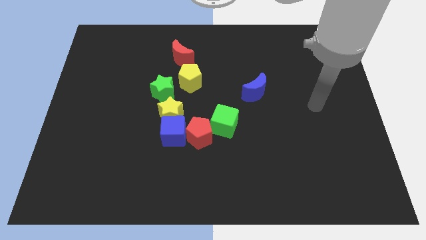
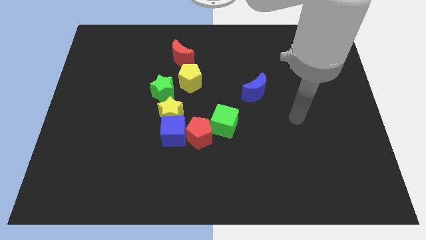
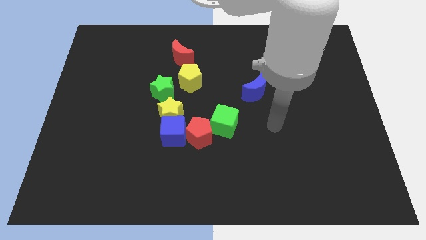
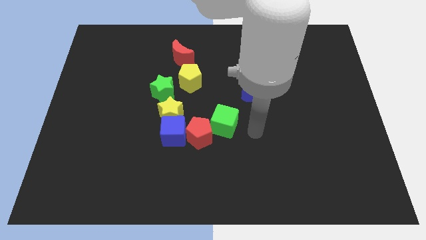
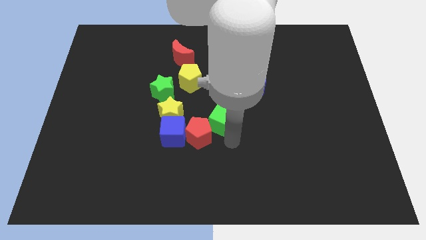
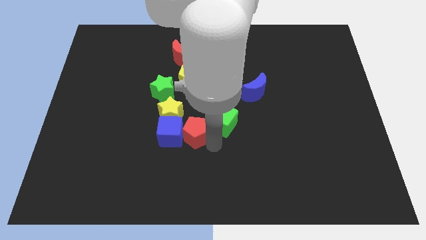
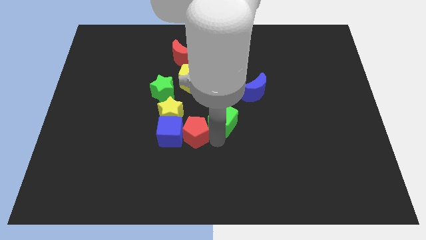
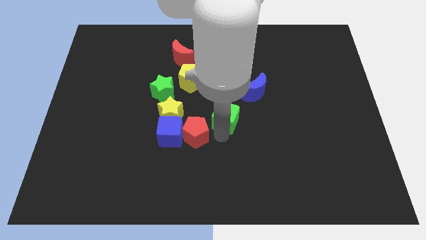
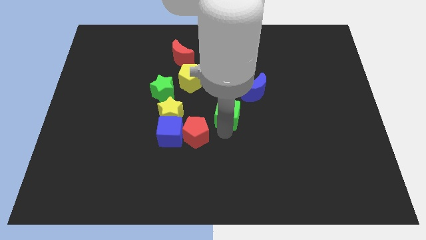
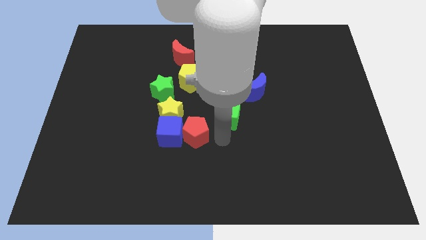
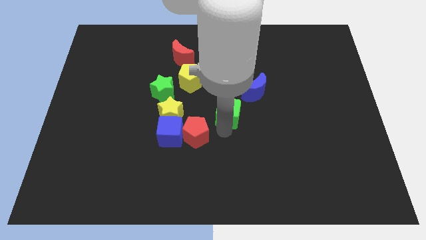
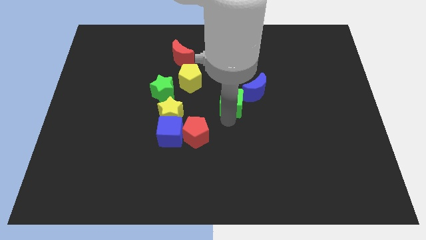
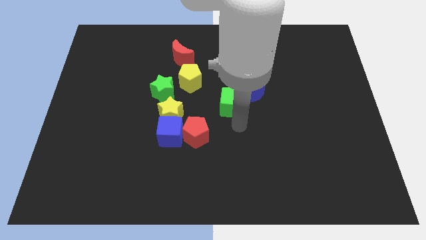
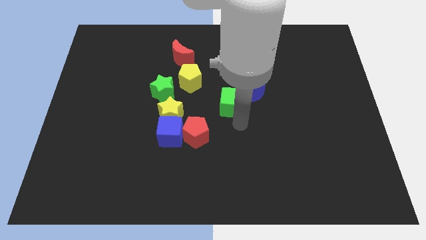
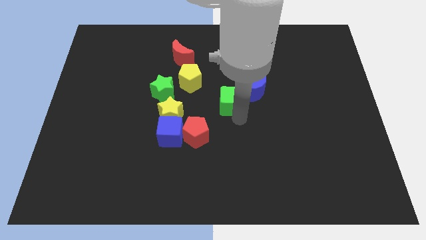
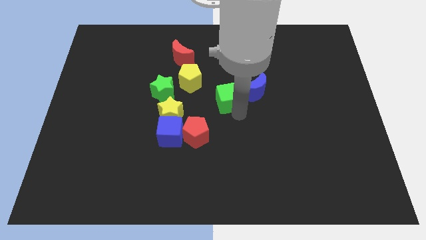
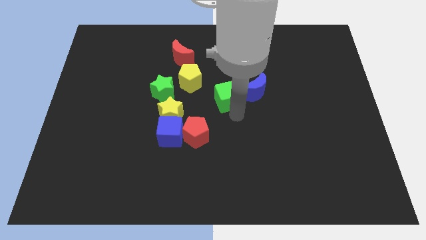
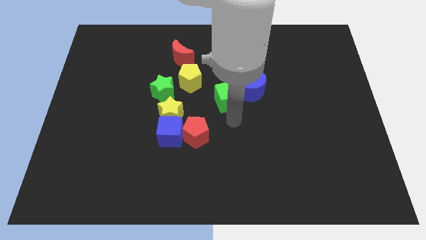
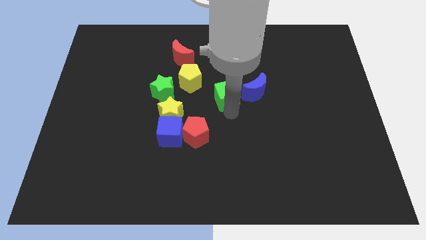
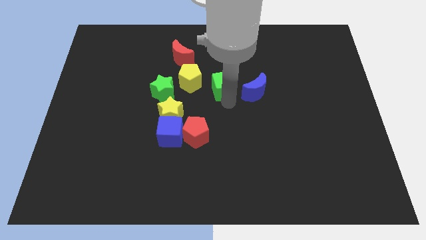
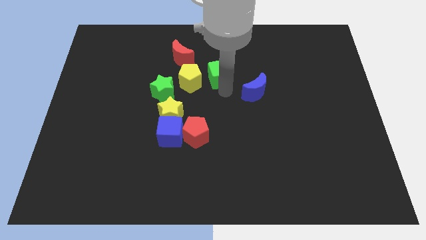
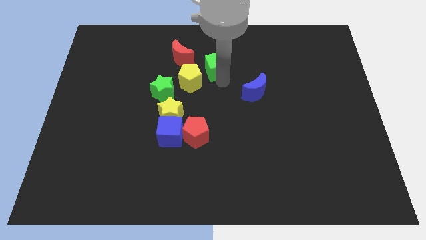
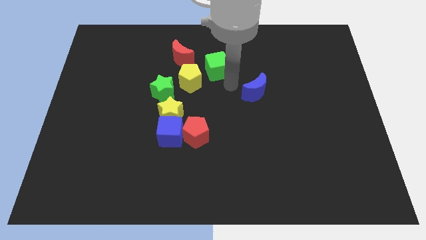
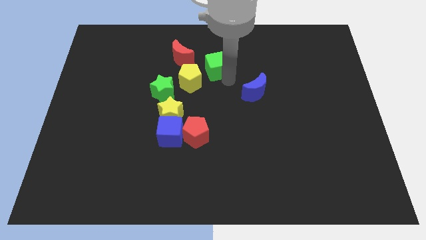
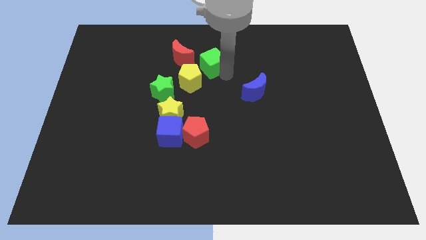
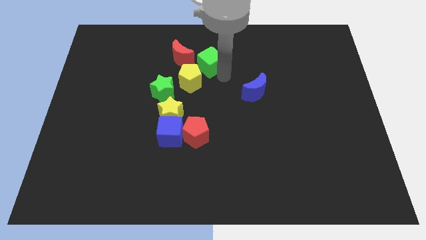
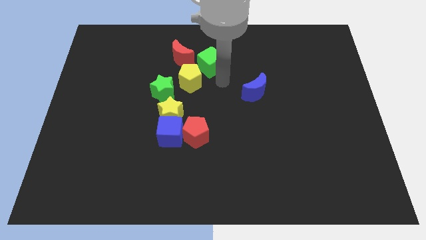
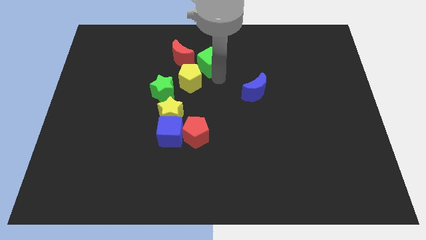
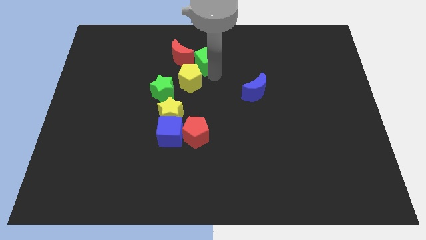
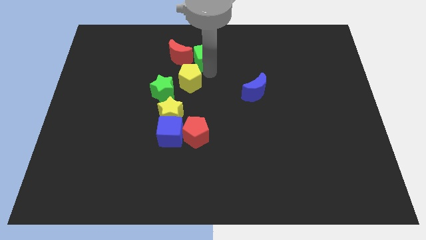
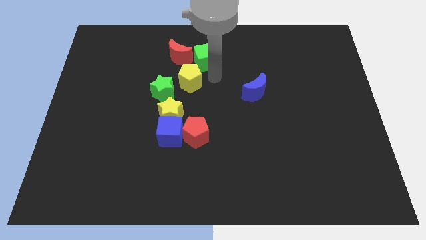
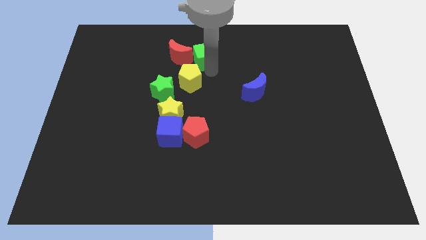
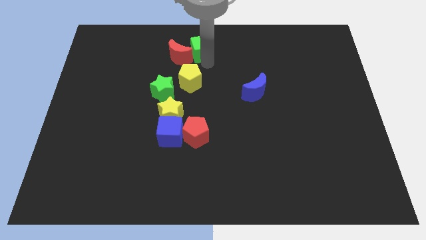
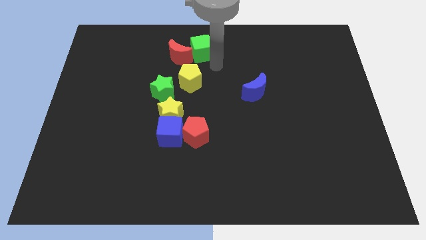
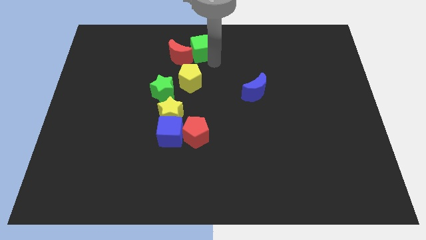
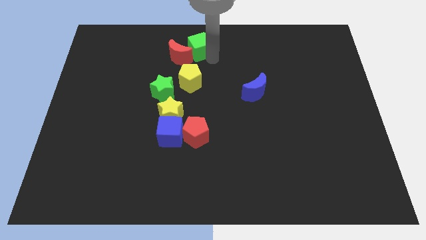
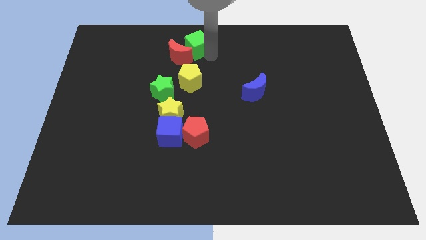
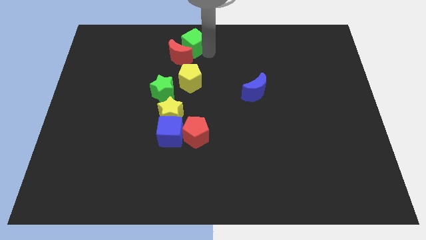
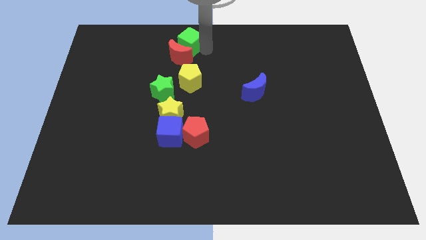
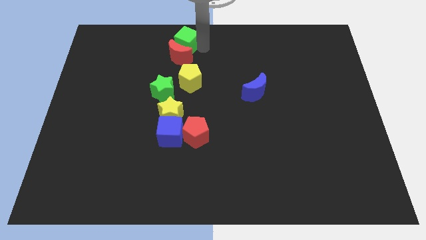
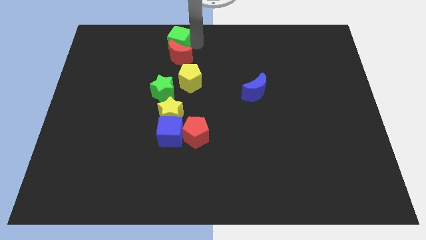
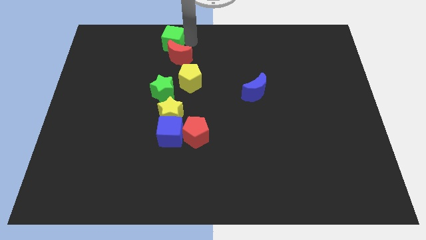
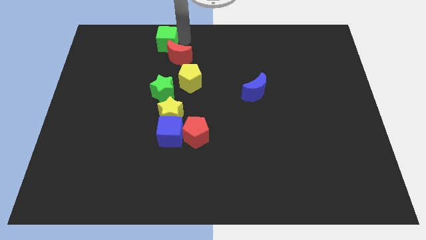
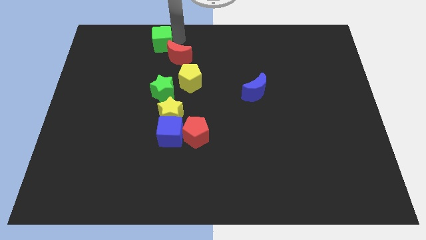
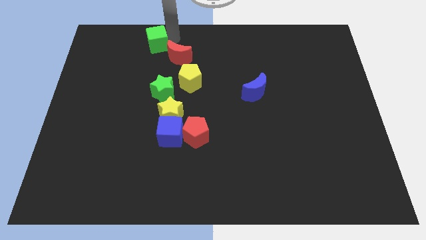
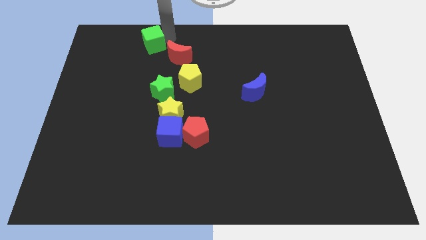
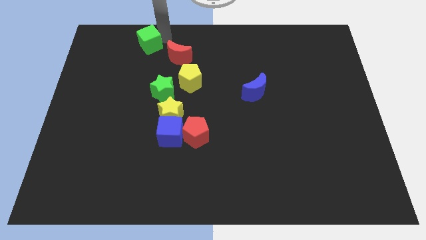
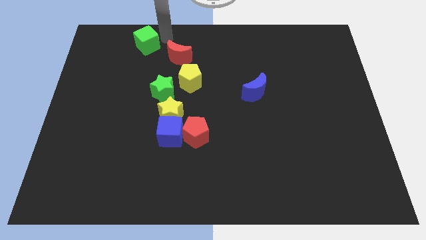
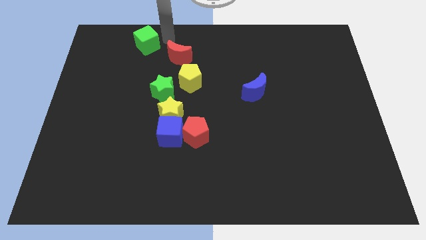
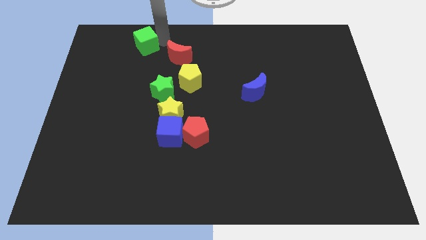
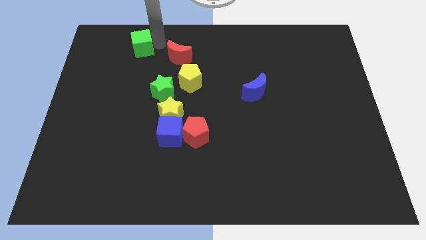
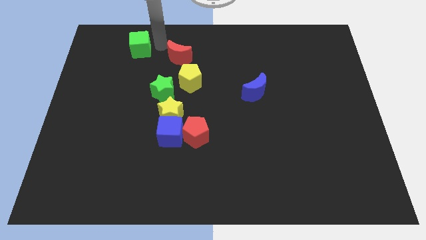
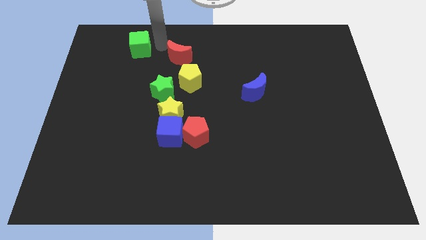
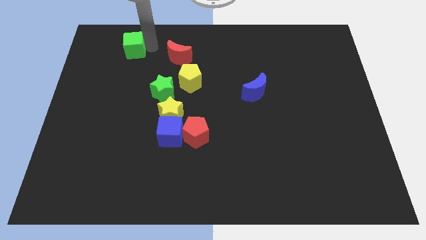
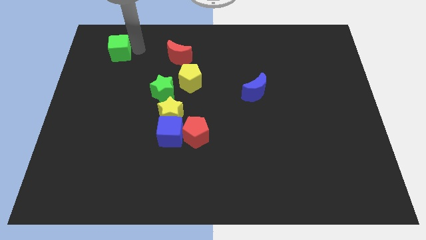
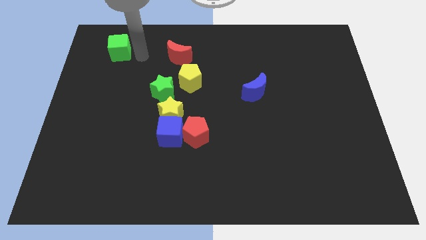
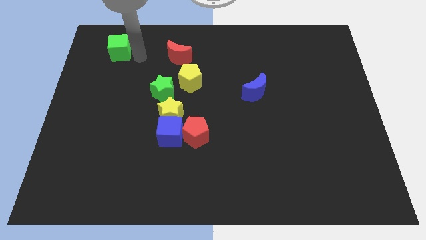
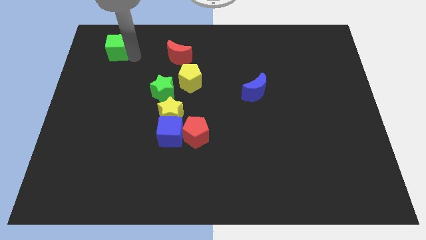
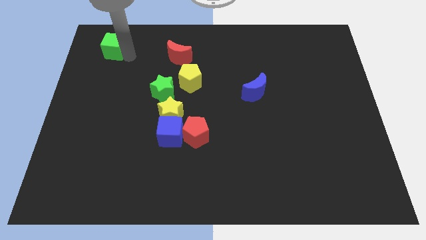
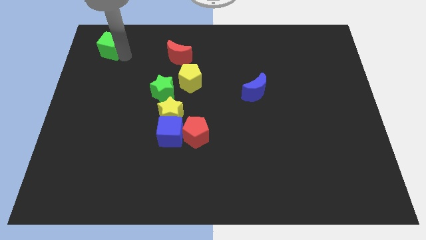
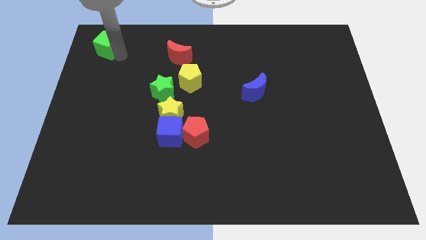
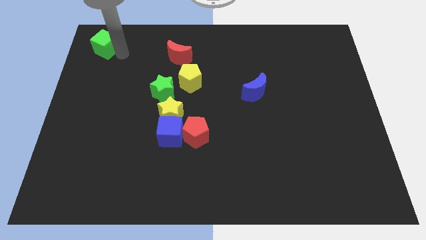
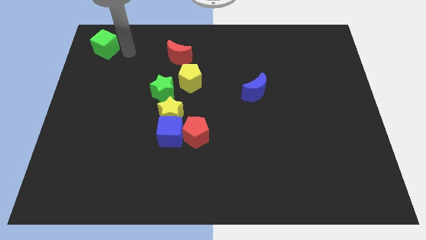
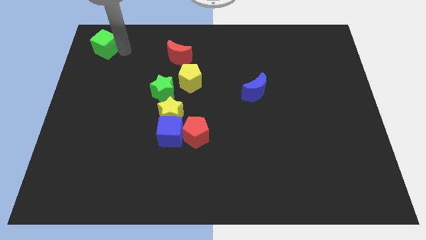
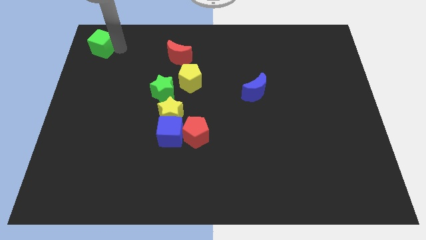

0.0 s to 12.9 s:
push the green cube to the upper left corner
